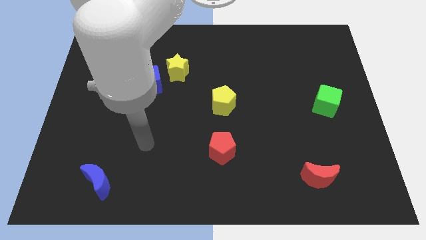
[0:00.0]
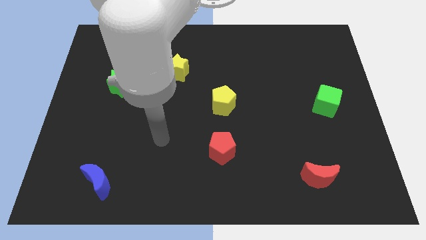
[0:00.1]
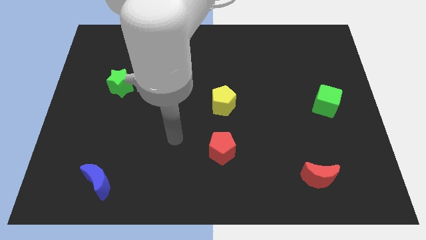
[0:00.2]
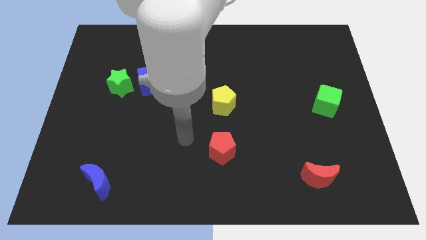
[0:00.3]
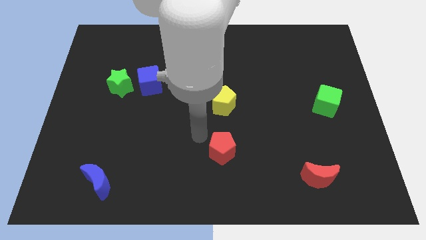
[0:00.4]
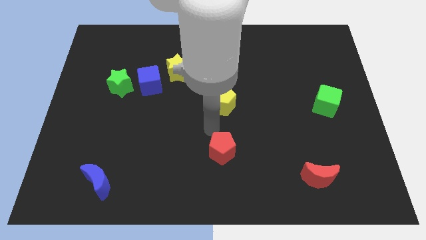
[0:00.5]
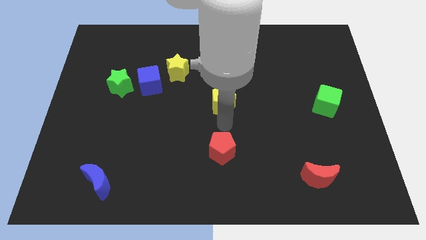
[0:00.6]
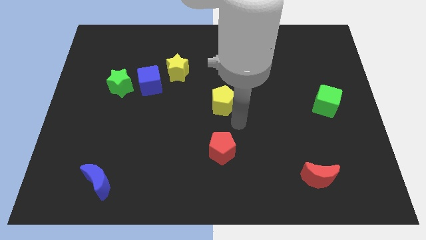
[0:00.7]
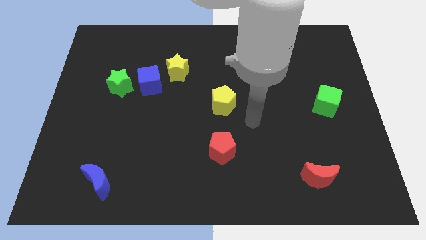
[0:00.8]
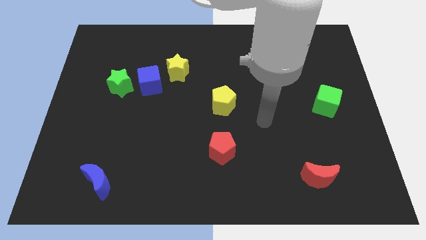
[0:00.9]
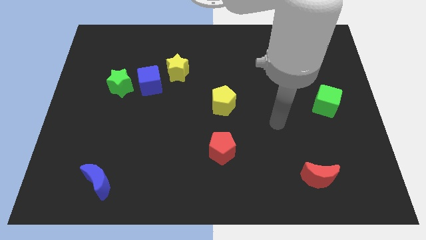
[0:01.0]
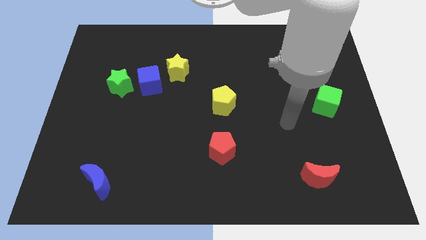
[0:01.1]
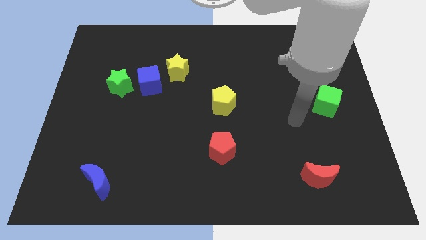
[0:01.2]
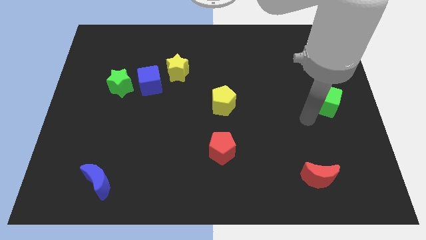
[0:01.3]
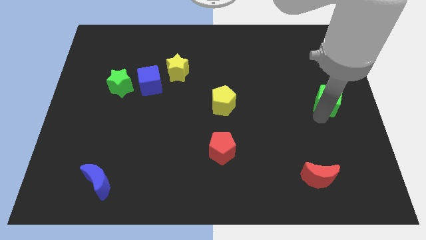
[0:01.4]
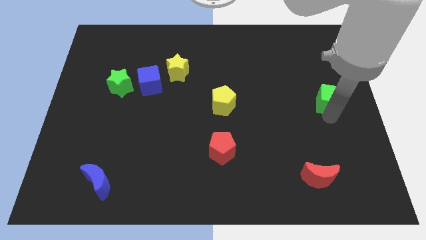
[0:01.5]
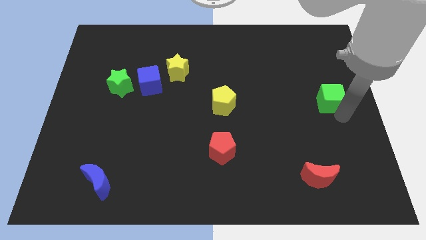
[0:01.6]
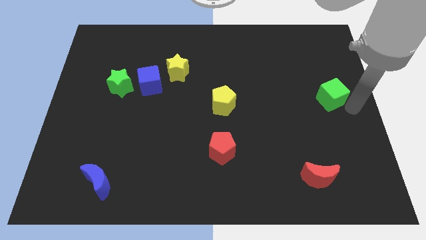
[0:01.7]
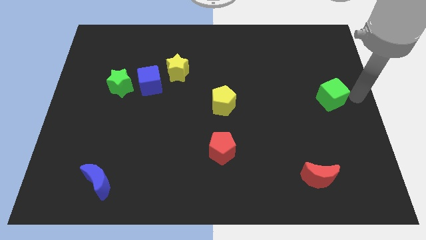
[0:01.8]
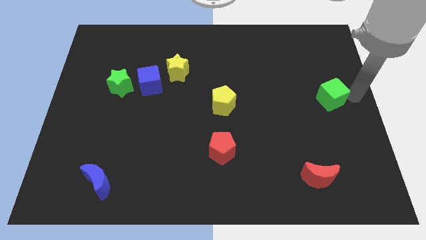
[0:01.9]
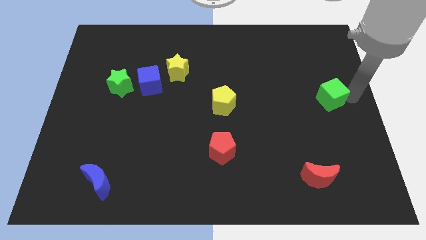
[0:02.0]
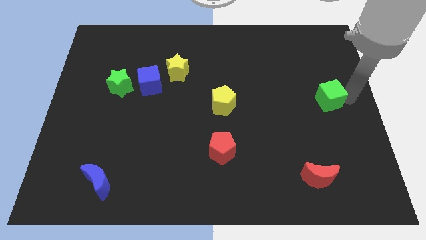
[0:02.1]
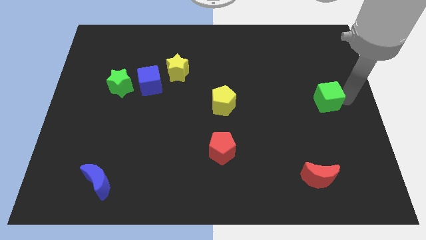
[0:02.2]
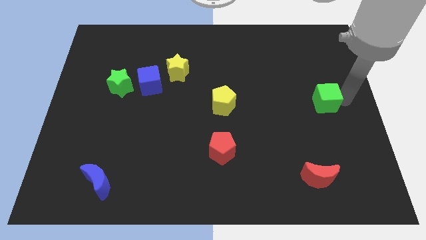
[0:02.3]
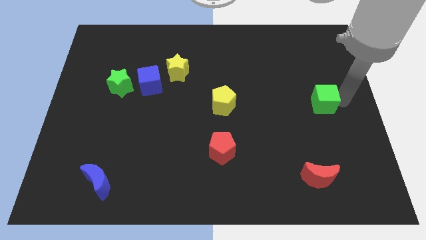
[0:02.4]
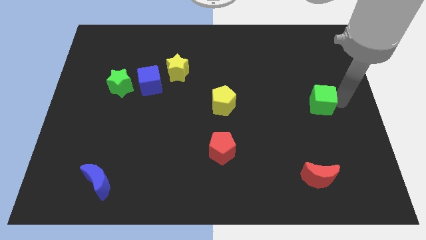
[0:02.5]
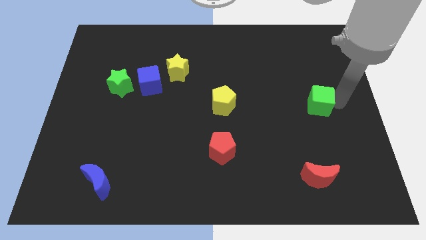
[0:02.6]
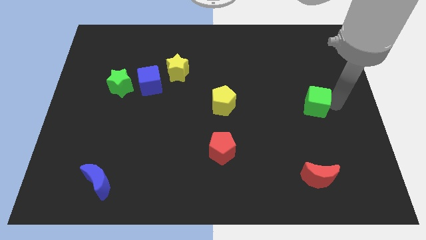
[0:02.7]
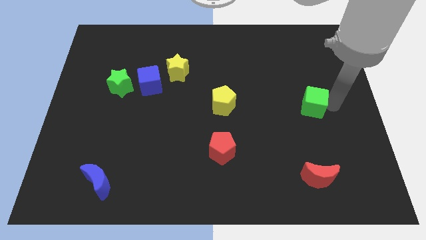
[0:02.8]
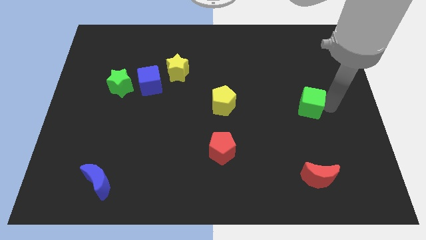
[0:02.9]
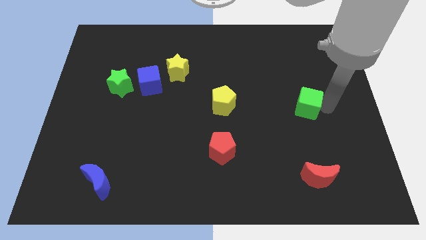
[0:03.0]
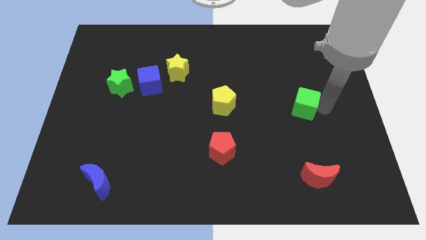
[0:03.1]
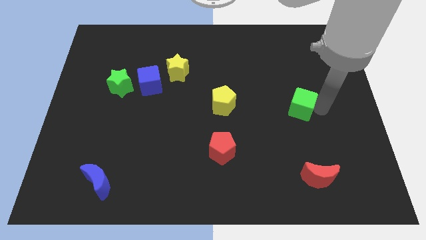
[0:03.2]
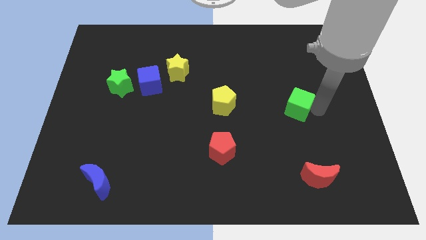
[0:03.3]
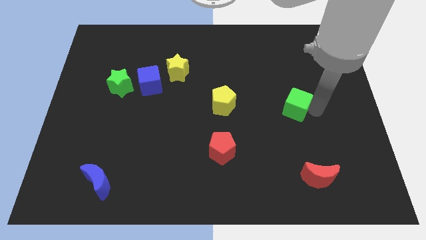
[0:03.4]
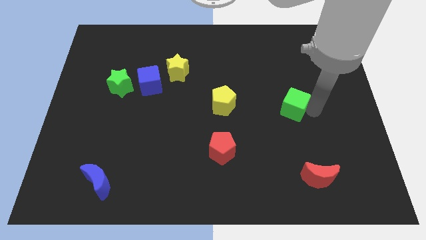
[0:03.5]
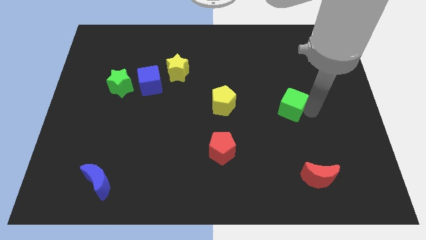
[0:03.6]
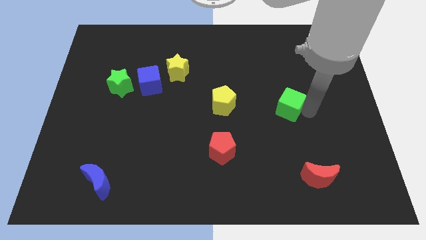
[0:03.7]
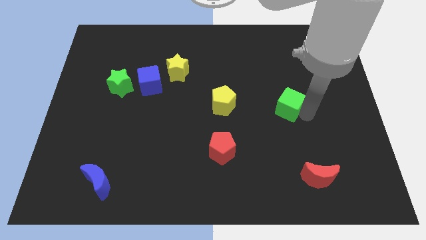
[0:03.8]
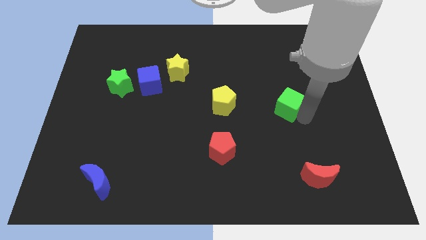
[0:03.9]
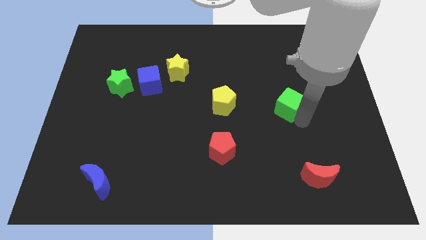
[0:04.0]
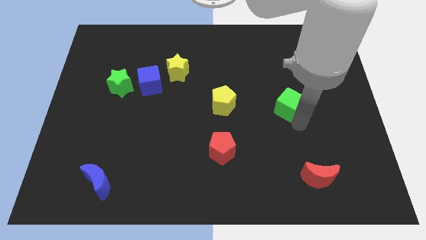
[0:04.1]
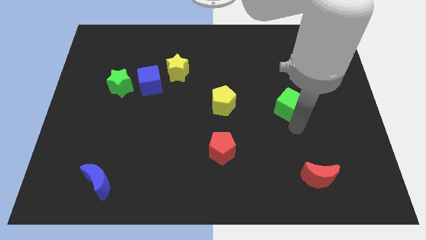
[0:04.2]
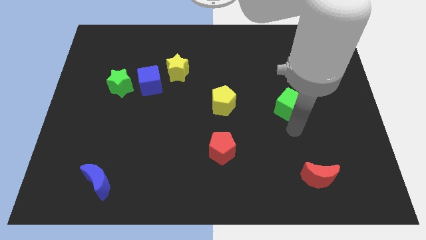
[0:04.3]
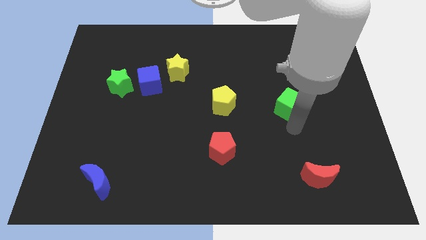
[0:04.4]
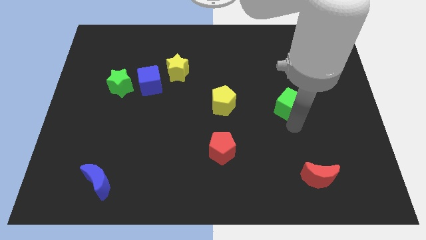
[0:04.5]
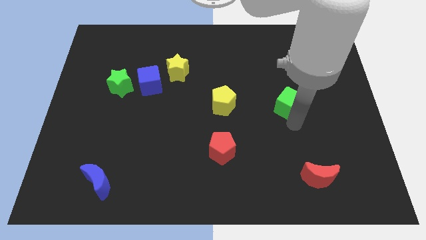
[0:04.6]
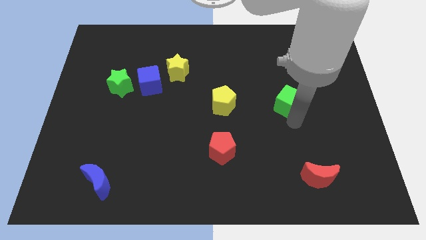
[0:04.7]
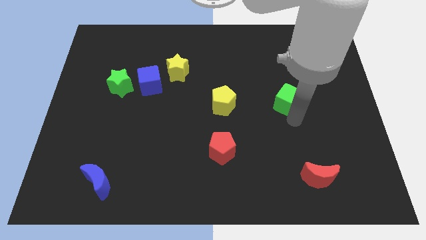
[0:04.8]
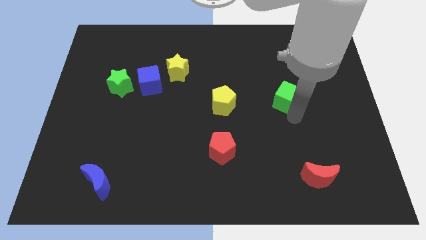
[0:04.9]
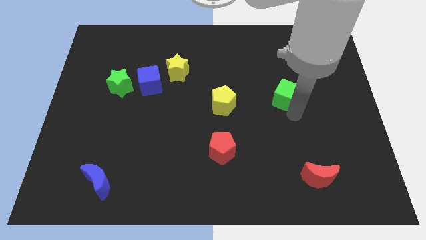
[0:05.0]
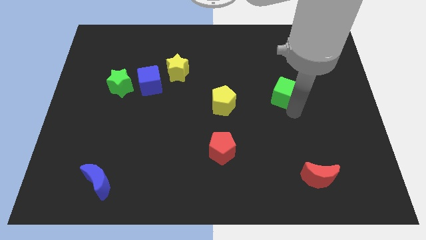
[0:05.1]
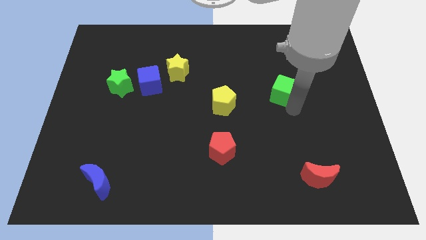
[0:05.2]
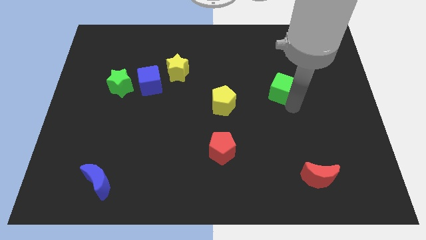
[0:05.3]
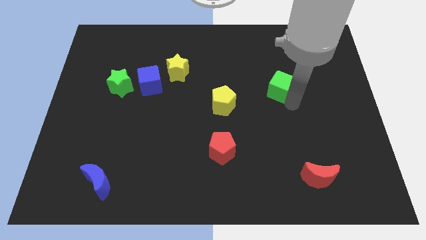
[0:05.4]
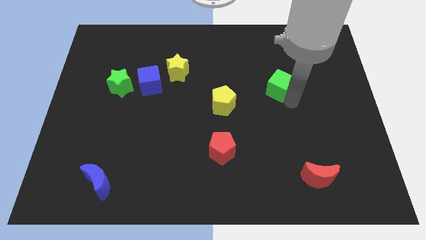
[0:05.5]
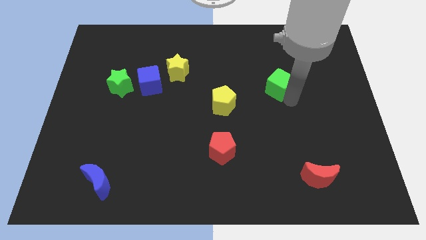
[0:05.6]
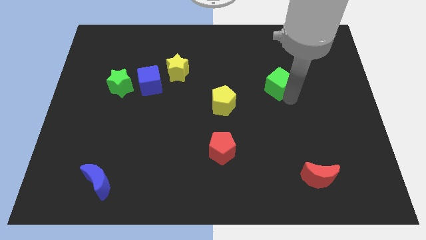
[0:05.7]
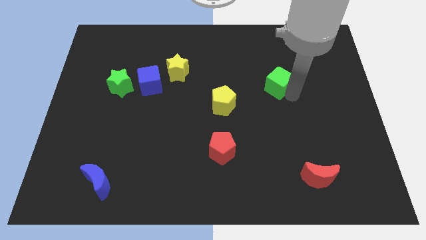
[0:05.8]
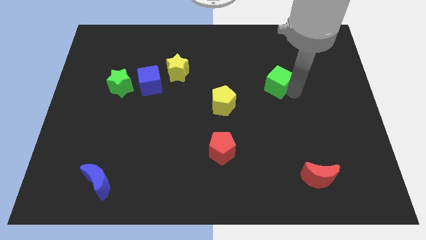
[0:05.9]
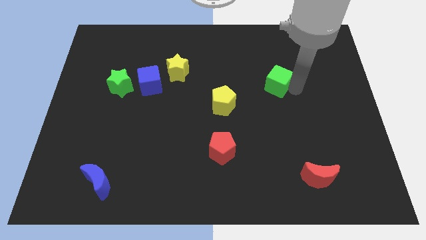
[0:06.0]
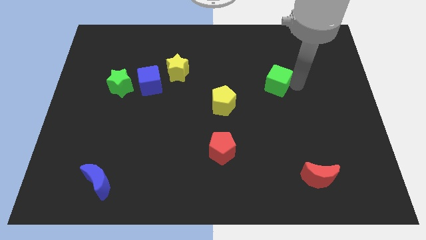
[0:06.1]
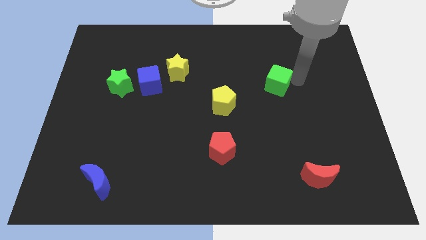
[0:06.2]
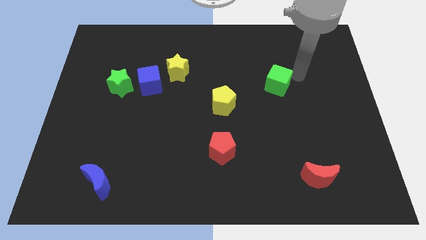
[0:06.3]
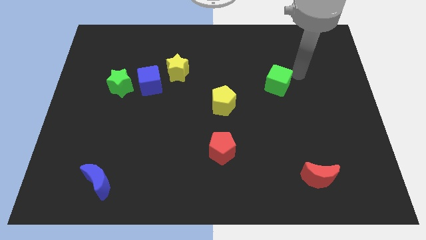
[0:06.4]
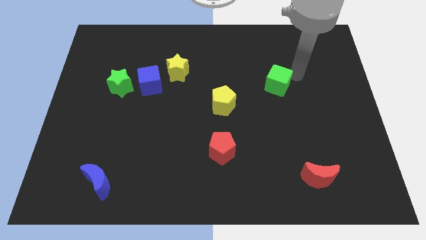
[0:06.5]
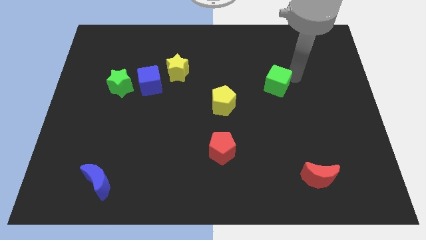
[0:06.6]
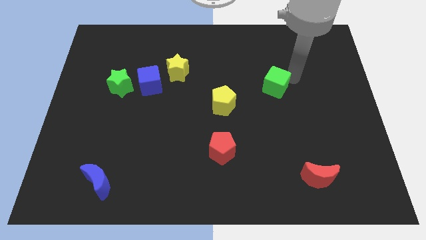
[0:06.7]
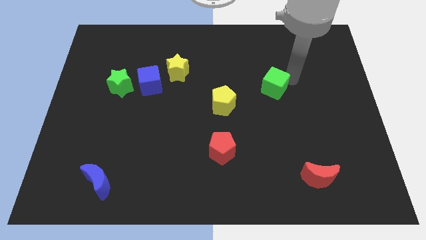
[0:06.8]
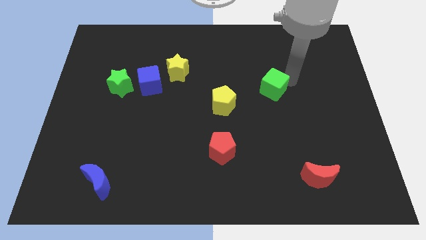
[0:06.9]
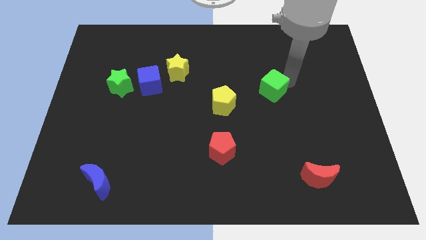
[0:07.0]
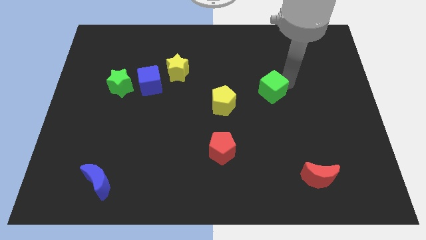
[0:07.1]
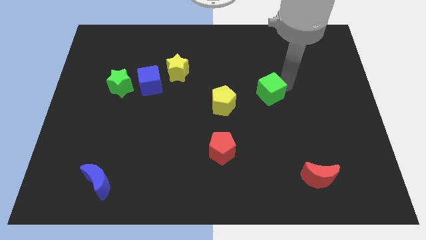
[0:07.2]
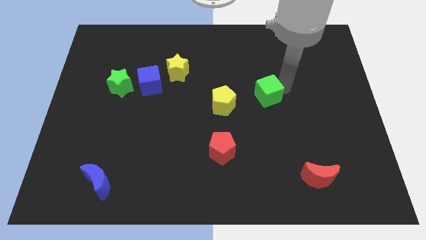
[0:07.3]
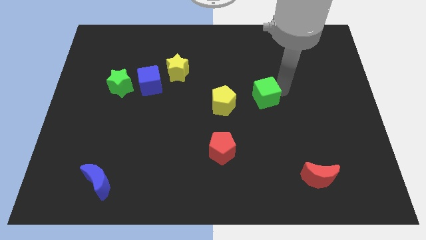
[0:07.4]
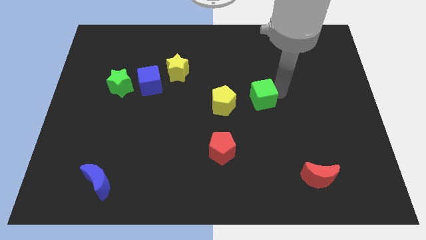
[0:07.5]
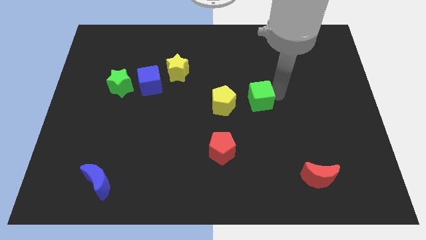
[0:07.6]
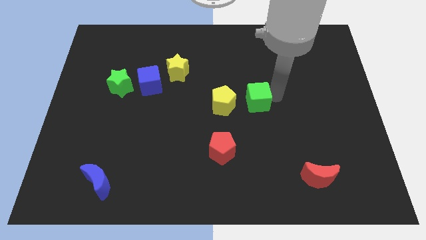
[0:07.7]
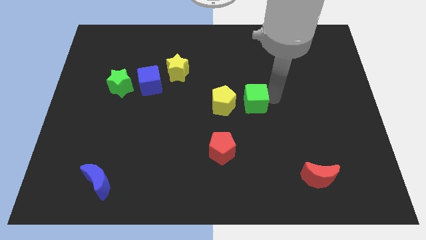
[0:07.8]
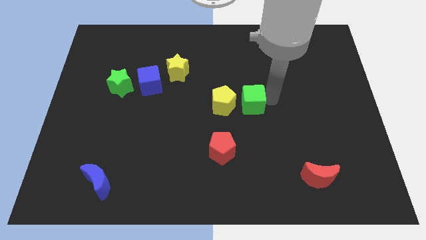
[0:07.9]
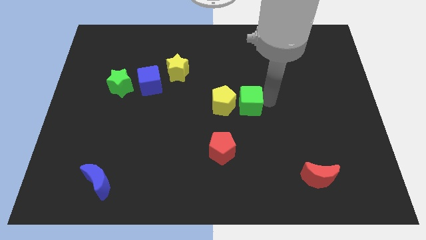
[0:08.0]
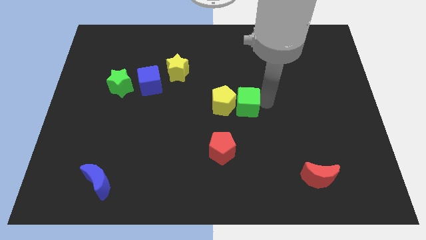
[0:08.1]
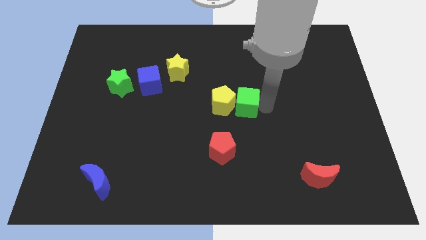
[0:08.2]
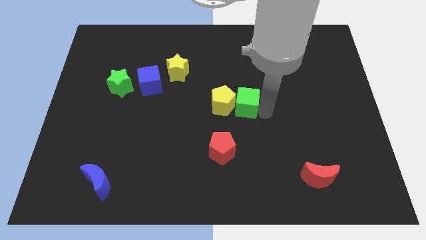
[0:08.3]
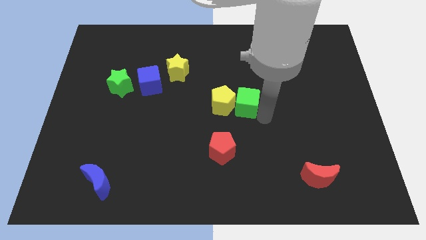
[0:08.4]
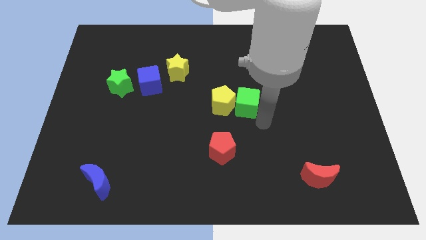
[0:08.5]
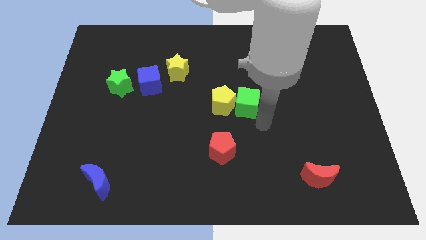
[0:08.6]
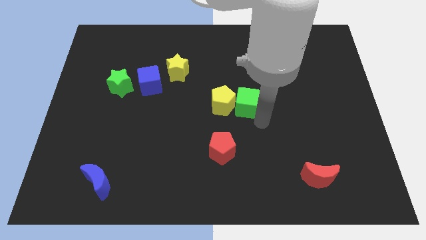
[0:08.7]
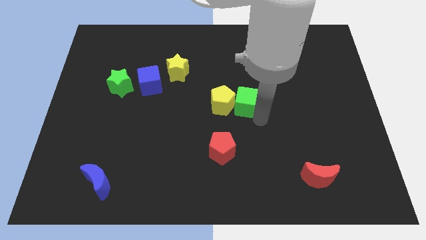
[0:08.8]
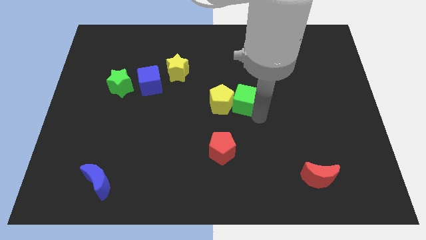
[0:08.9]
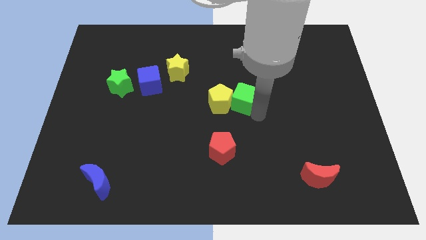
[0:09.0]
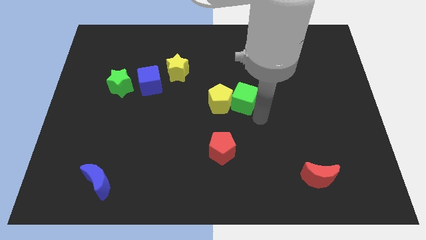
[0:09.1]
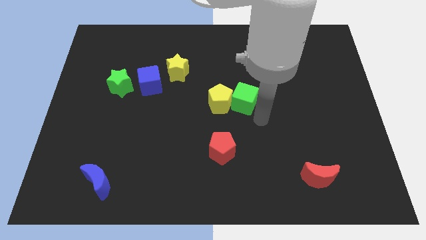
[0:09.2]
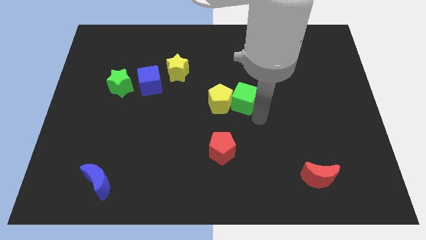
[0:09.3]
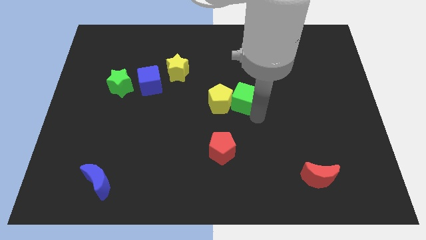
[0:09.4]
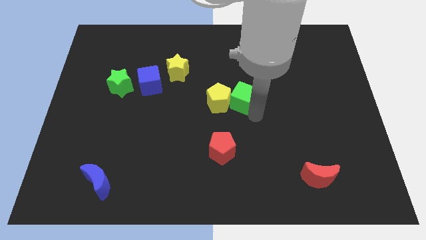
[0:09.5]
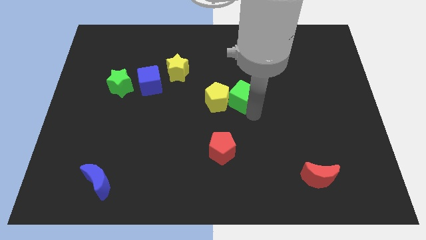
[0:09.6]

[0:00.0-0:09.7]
slide the green cube to the left
